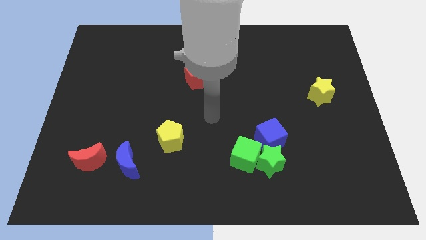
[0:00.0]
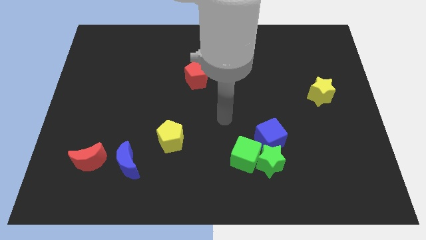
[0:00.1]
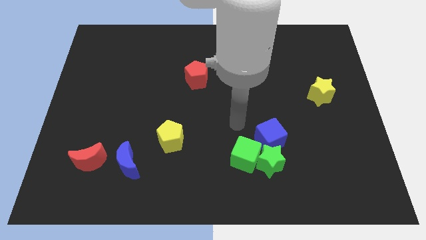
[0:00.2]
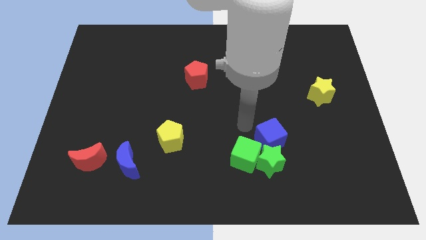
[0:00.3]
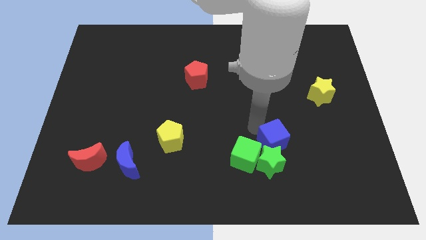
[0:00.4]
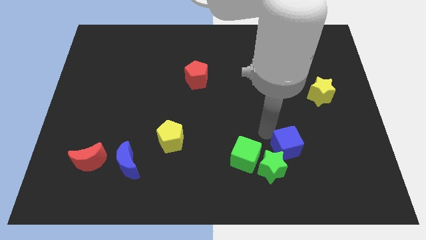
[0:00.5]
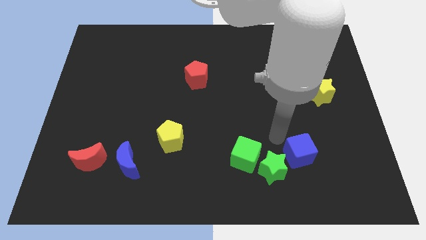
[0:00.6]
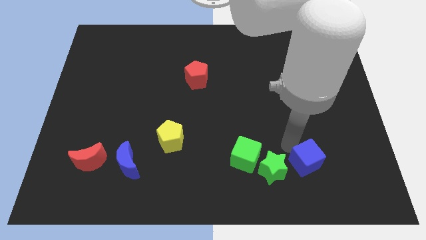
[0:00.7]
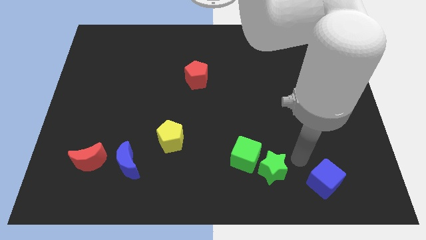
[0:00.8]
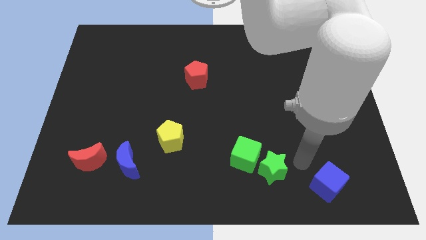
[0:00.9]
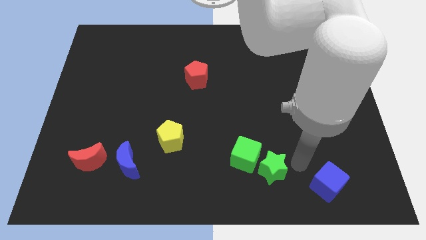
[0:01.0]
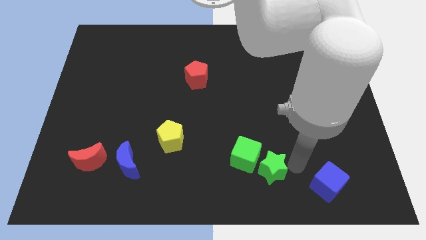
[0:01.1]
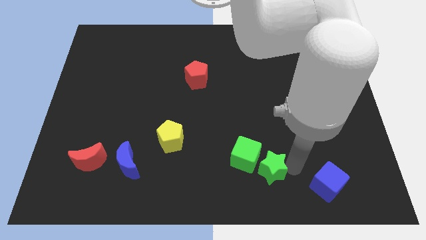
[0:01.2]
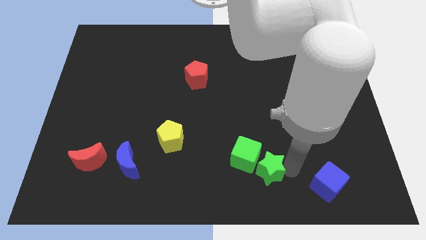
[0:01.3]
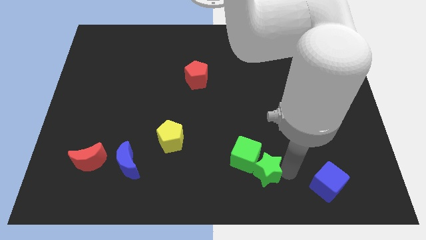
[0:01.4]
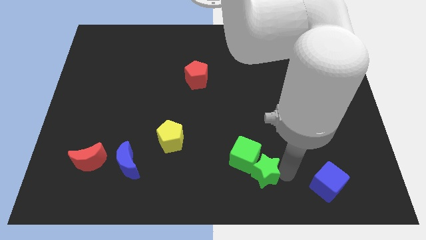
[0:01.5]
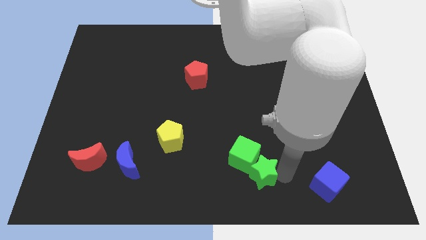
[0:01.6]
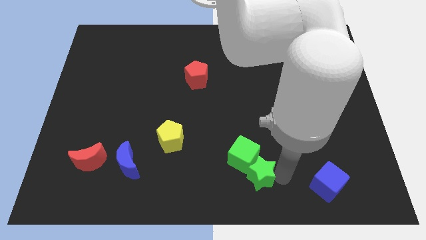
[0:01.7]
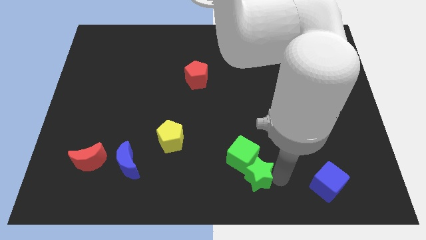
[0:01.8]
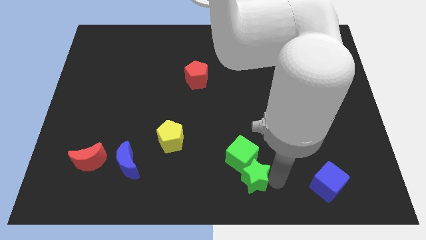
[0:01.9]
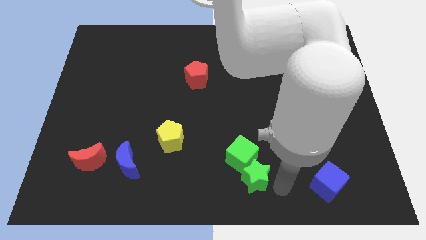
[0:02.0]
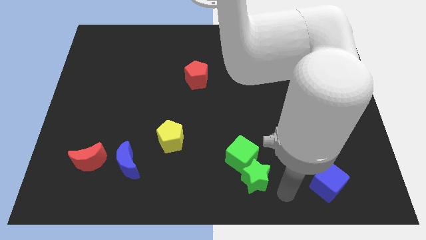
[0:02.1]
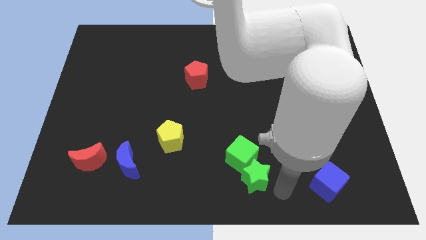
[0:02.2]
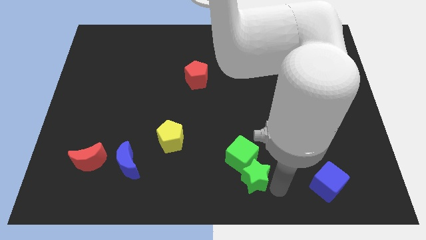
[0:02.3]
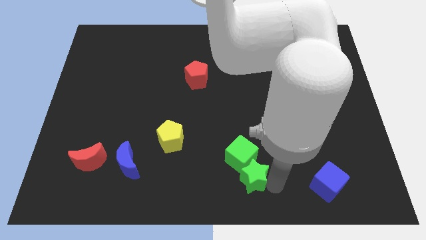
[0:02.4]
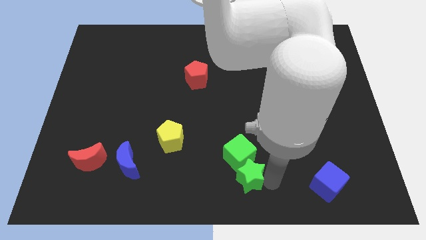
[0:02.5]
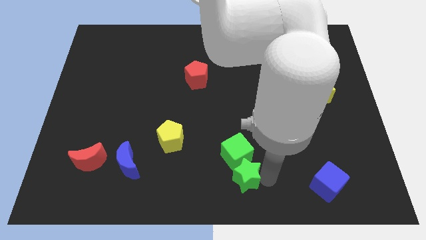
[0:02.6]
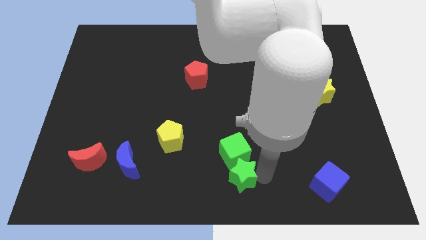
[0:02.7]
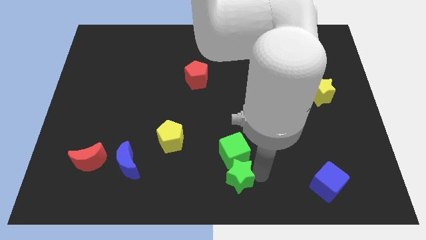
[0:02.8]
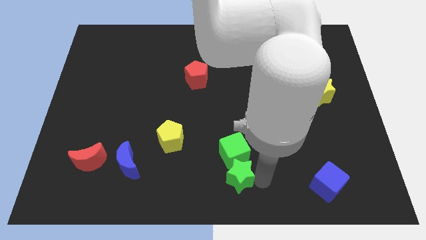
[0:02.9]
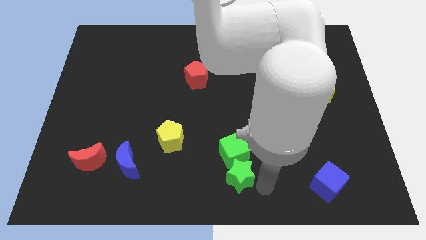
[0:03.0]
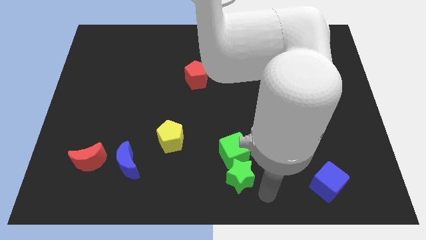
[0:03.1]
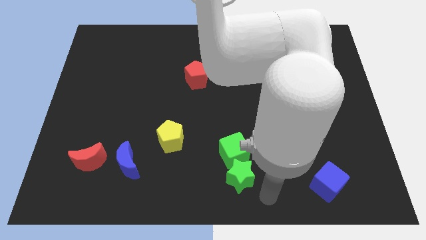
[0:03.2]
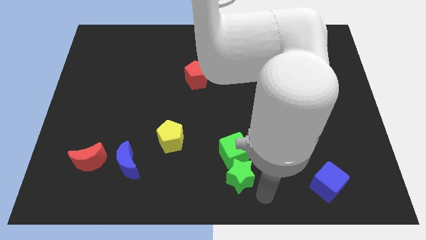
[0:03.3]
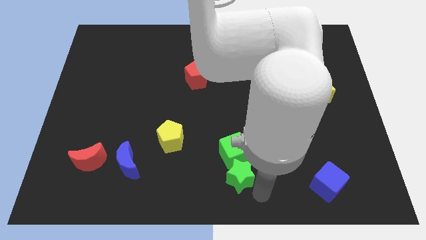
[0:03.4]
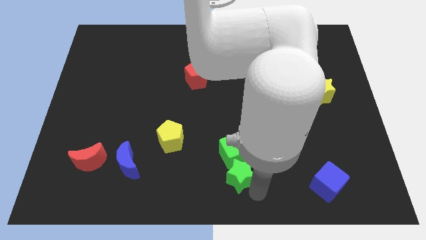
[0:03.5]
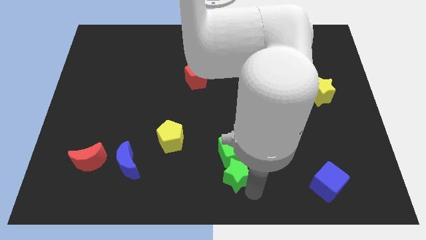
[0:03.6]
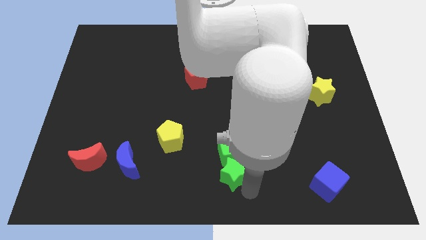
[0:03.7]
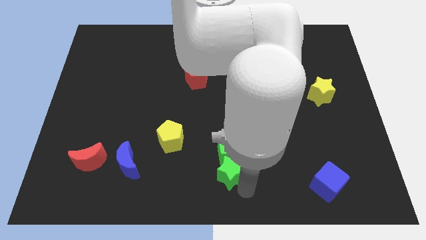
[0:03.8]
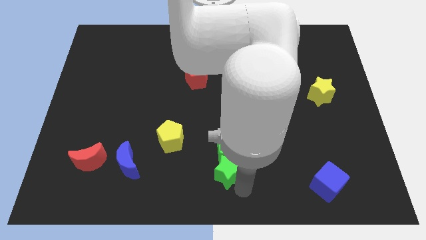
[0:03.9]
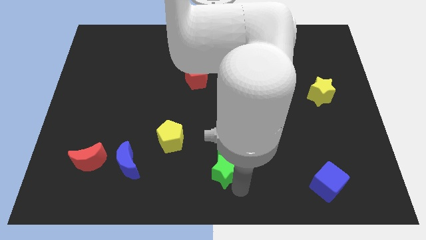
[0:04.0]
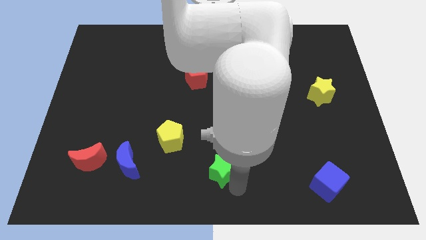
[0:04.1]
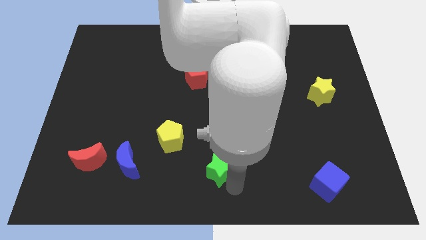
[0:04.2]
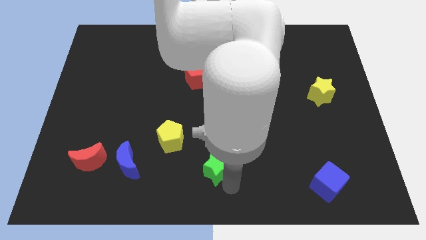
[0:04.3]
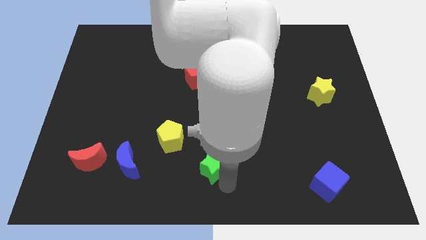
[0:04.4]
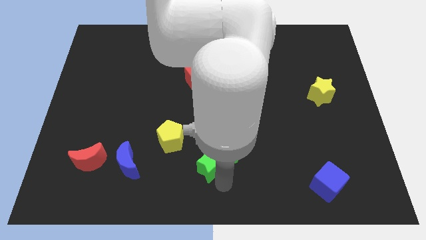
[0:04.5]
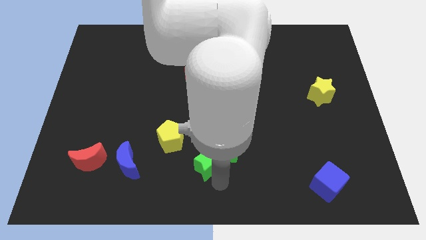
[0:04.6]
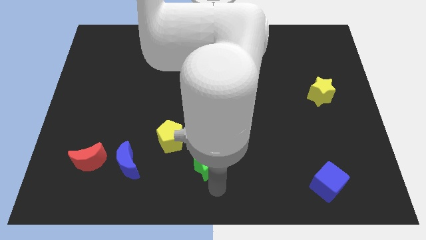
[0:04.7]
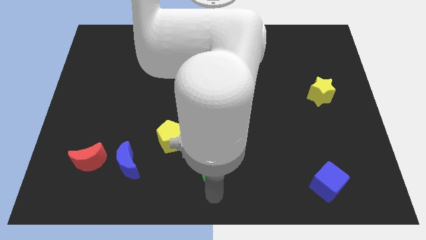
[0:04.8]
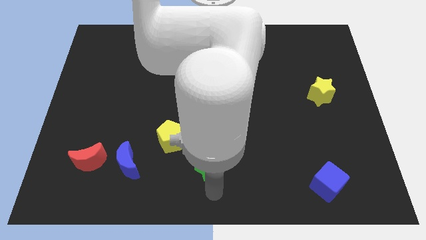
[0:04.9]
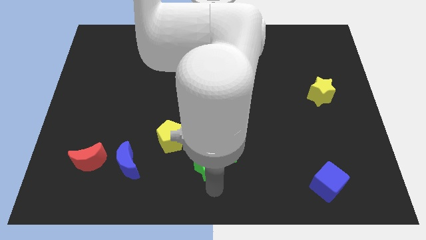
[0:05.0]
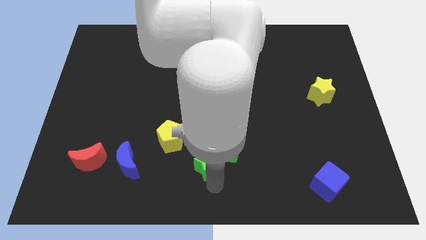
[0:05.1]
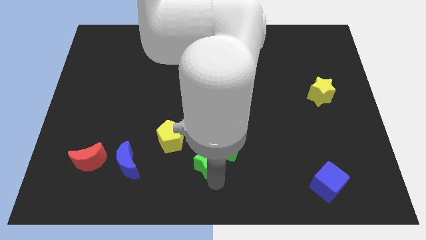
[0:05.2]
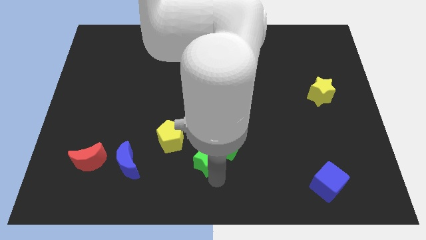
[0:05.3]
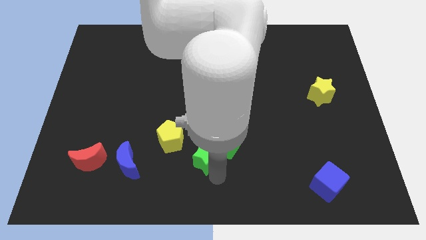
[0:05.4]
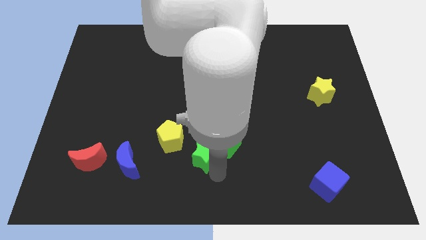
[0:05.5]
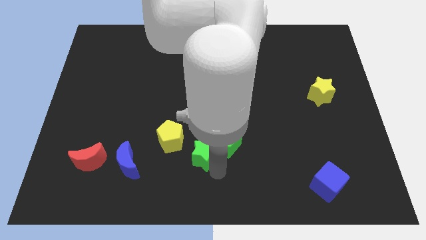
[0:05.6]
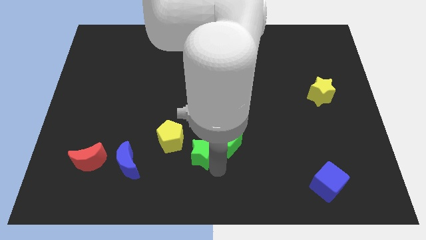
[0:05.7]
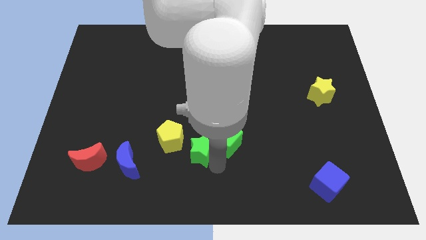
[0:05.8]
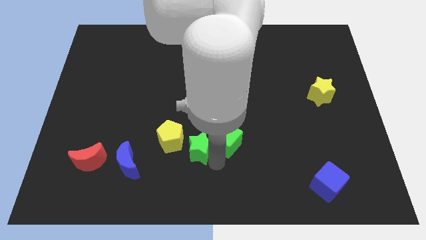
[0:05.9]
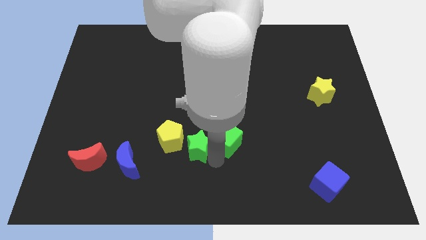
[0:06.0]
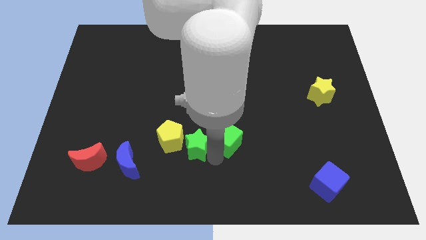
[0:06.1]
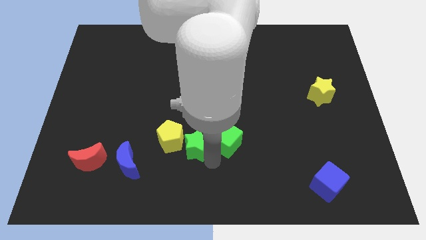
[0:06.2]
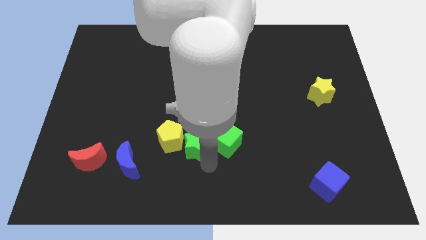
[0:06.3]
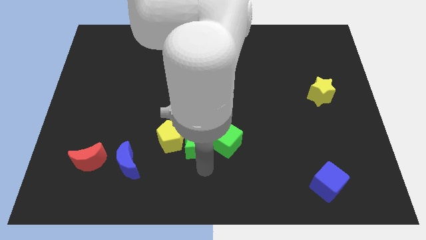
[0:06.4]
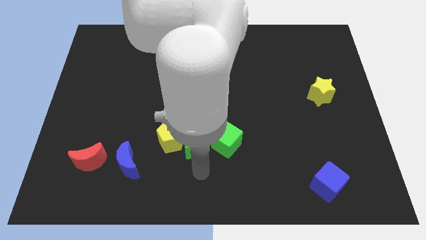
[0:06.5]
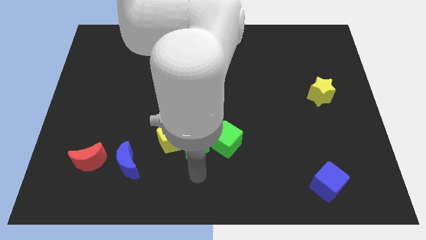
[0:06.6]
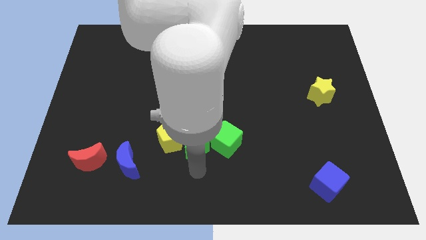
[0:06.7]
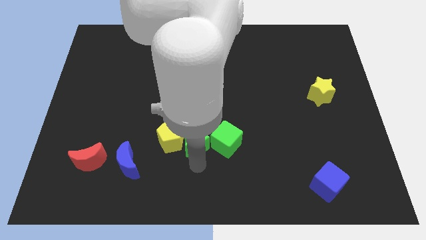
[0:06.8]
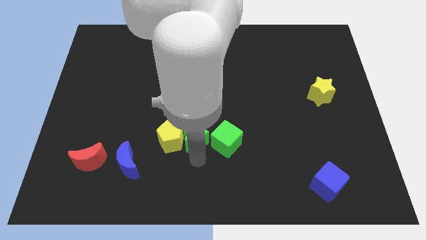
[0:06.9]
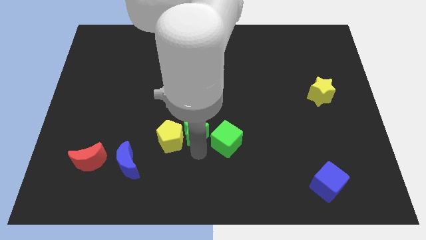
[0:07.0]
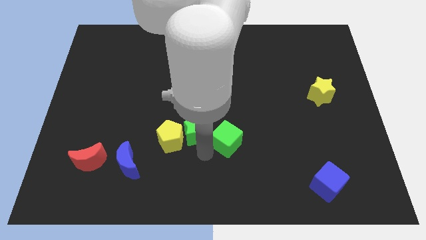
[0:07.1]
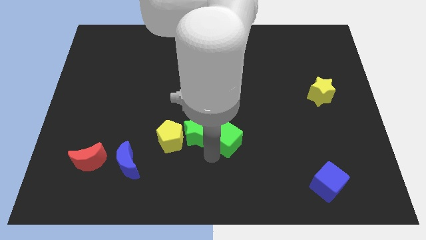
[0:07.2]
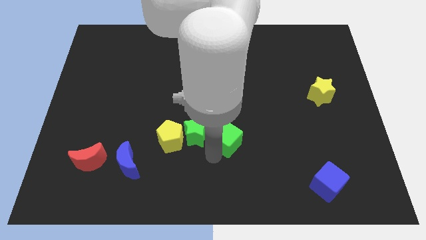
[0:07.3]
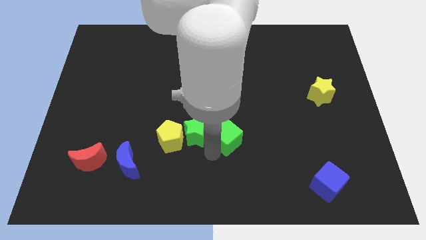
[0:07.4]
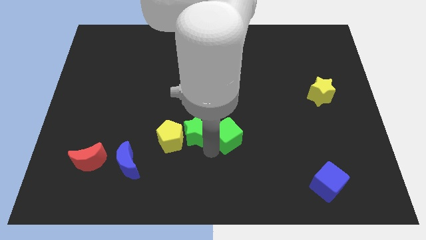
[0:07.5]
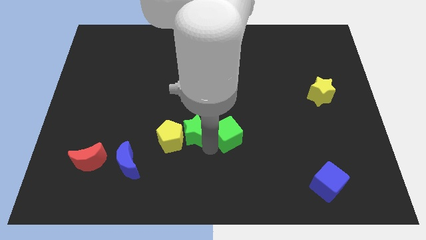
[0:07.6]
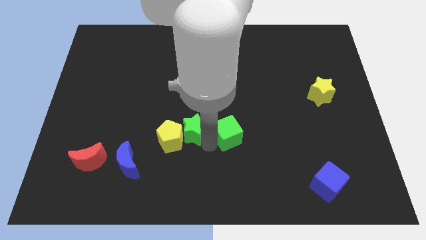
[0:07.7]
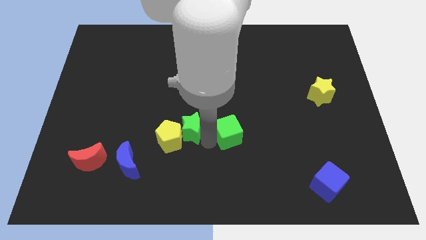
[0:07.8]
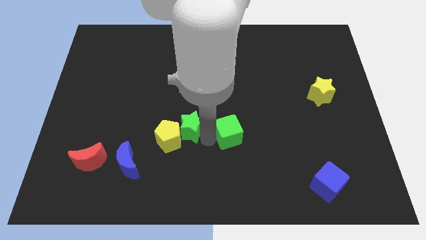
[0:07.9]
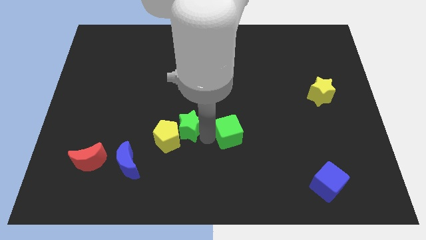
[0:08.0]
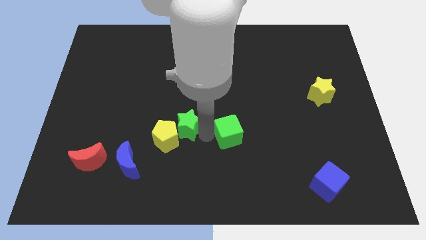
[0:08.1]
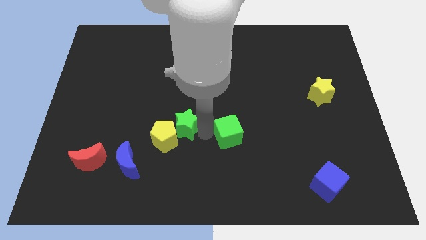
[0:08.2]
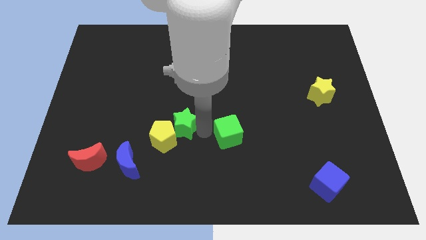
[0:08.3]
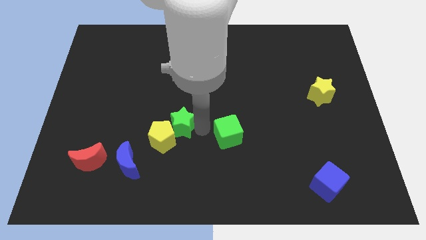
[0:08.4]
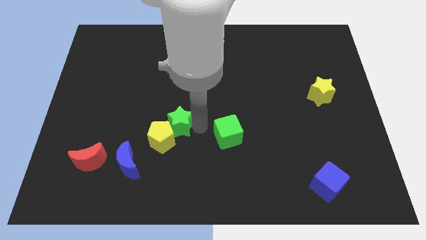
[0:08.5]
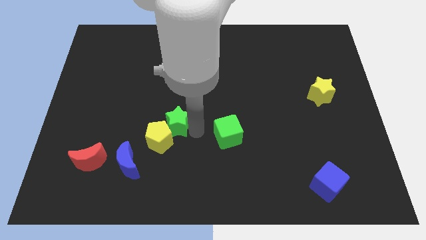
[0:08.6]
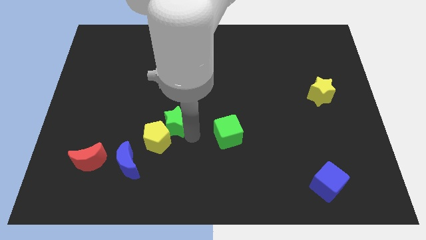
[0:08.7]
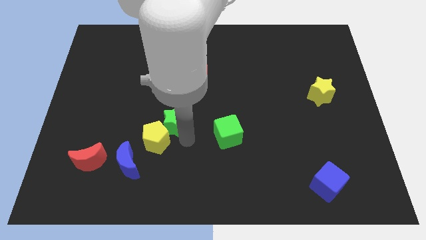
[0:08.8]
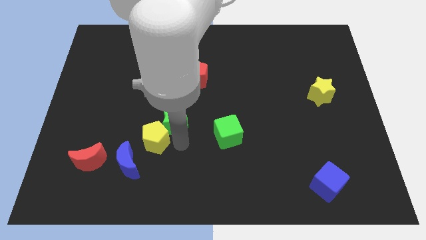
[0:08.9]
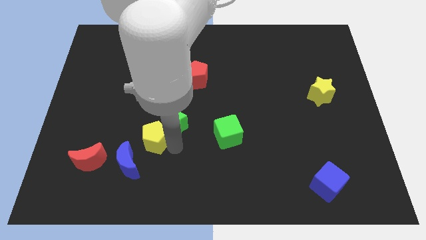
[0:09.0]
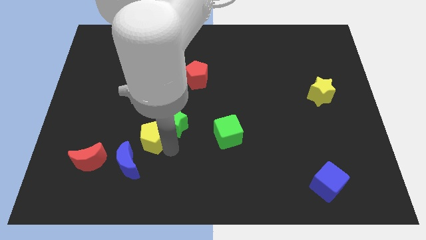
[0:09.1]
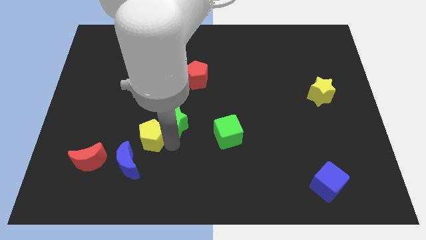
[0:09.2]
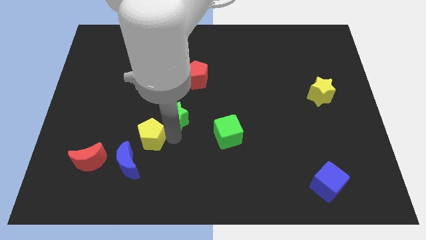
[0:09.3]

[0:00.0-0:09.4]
move the green star up and to the left diagonally
